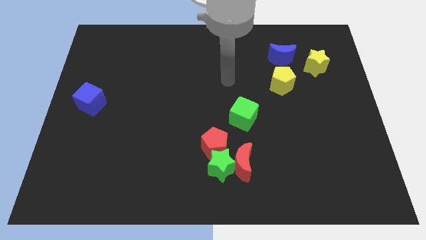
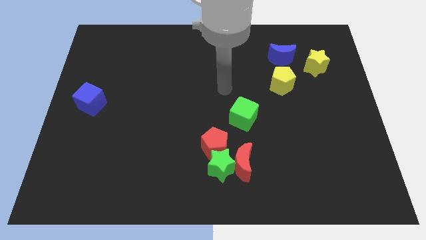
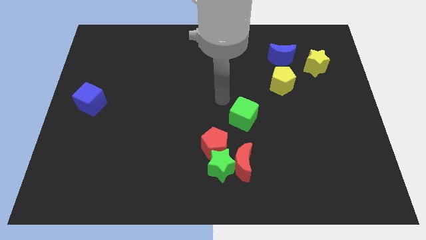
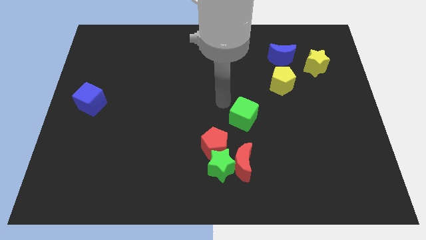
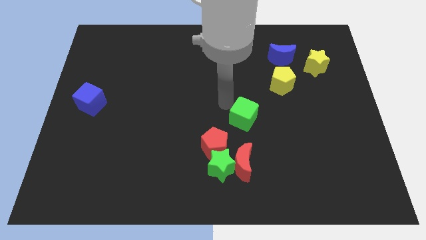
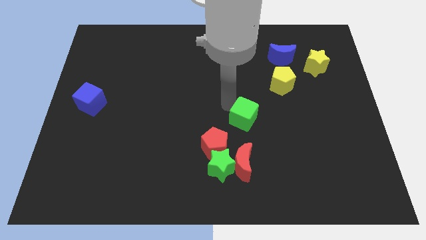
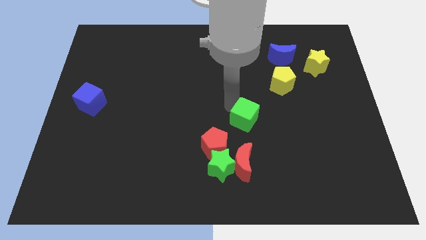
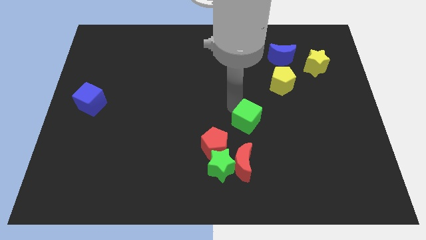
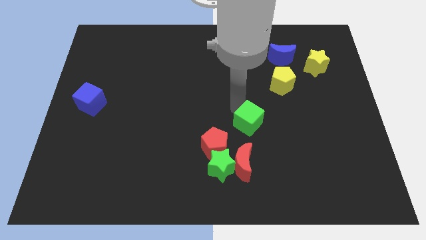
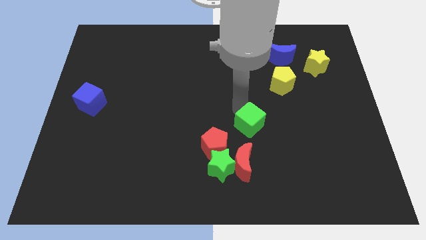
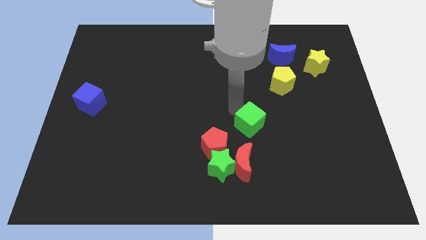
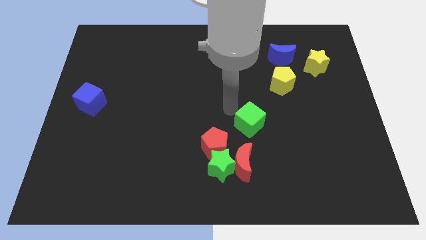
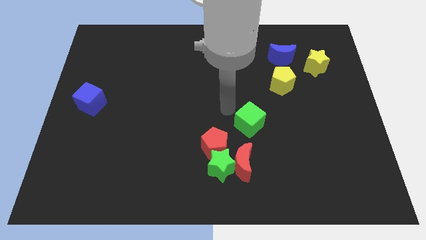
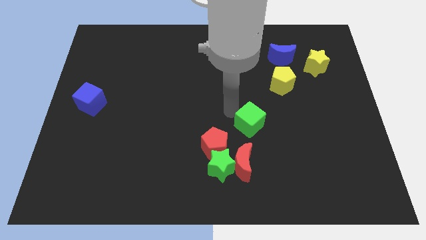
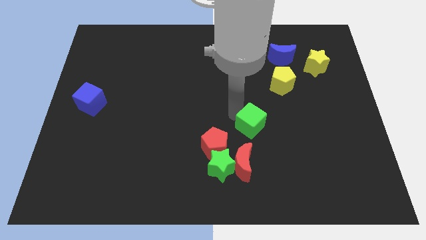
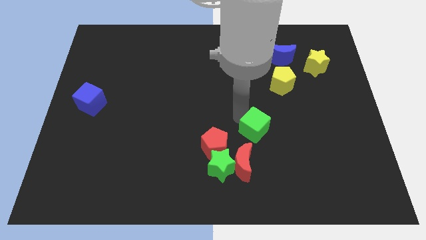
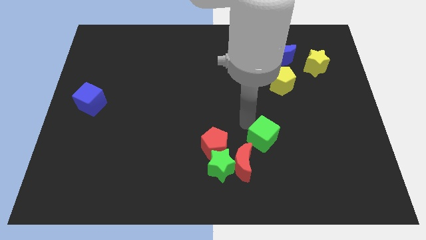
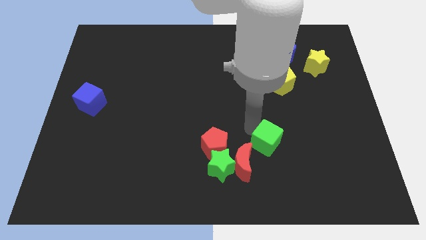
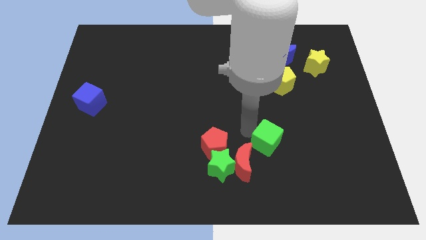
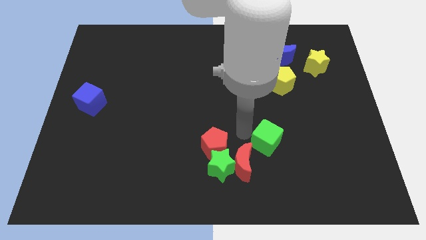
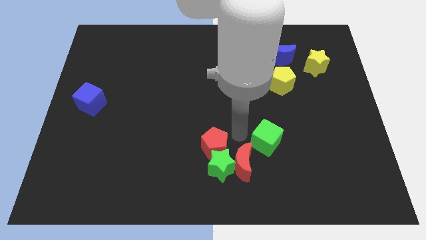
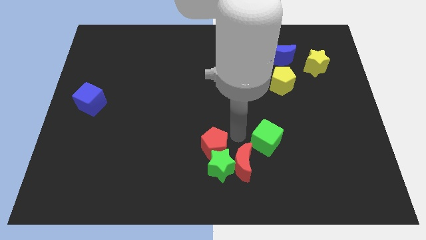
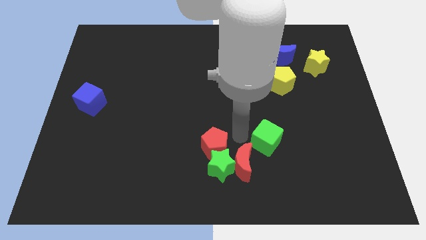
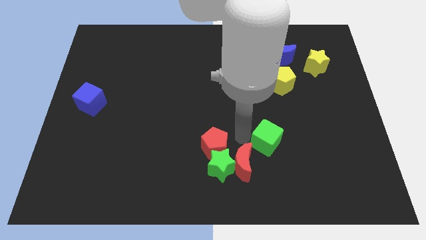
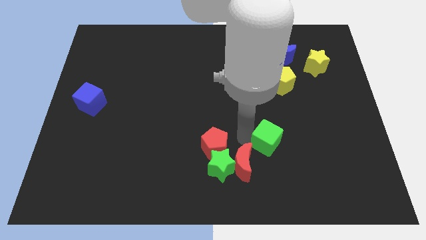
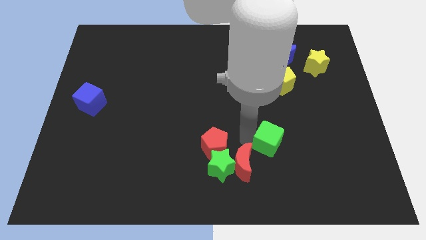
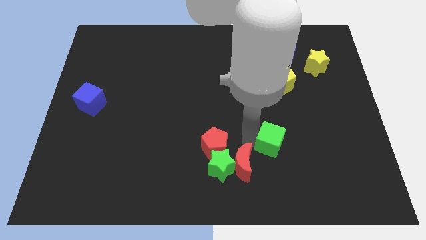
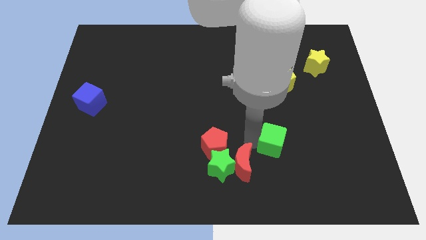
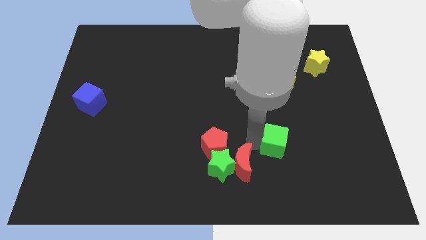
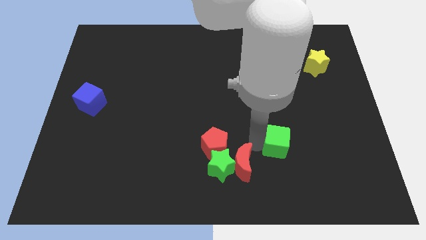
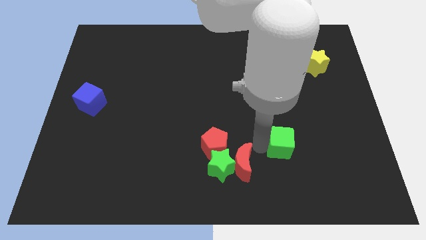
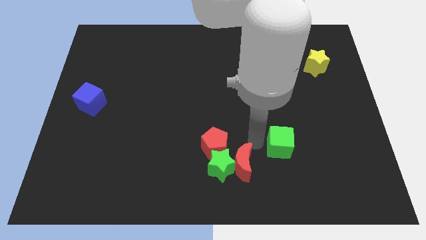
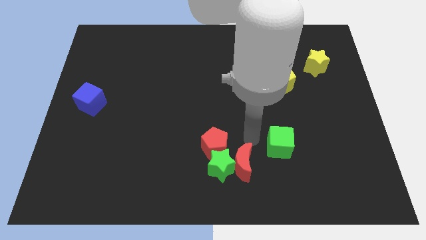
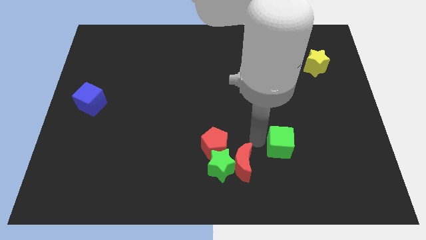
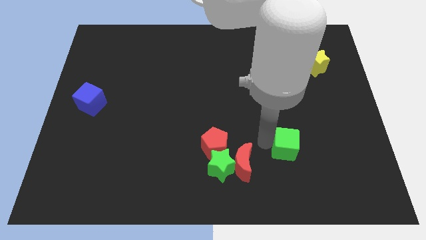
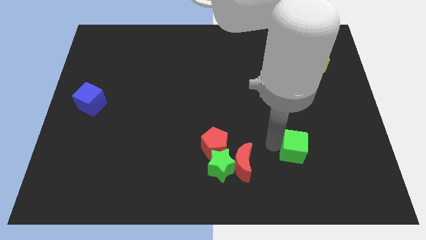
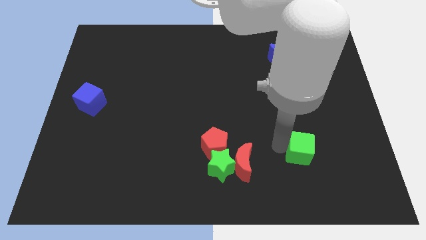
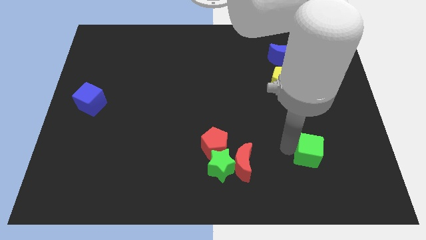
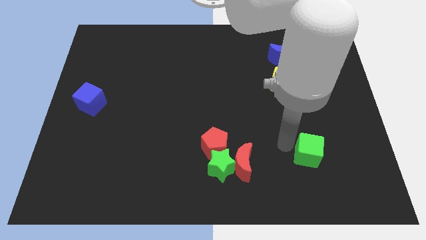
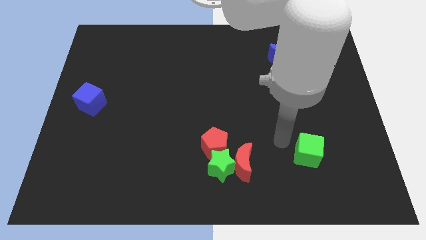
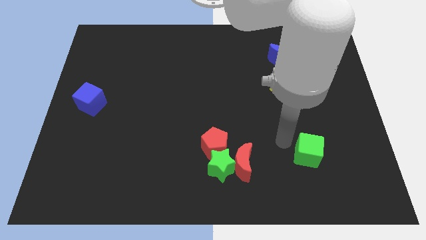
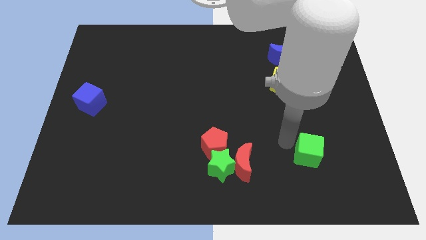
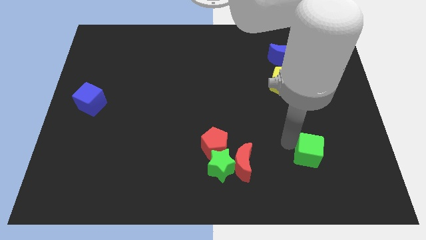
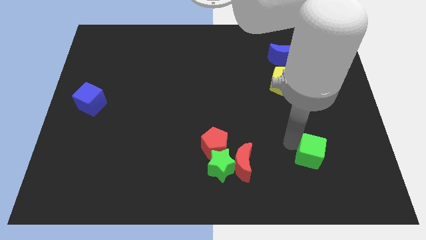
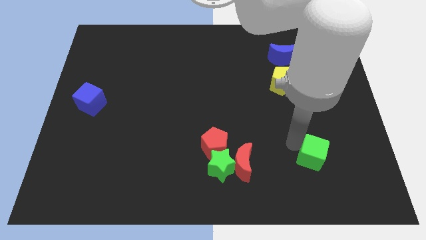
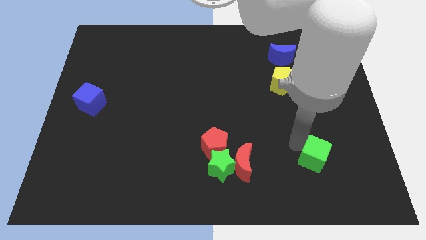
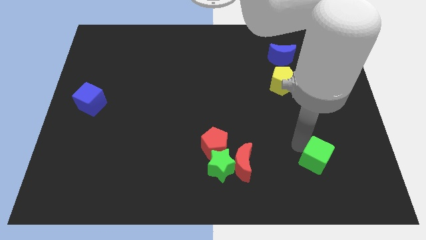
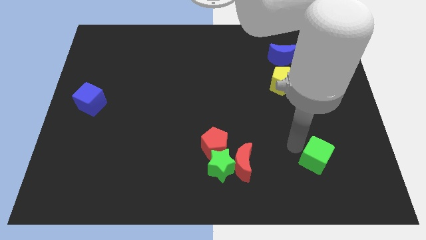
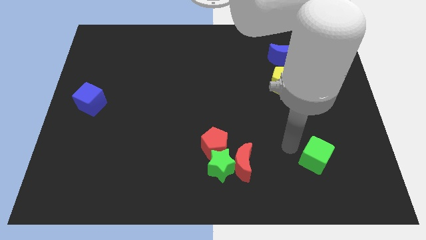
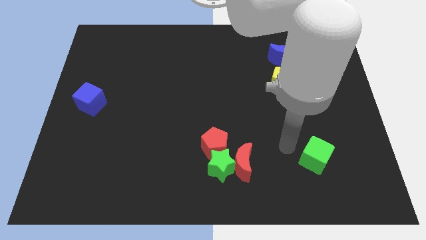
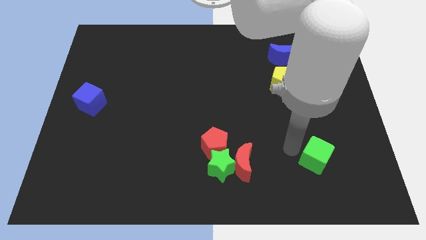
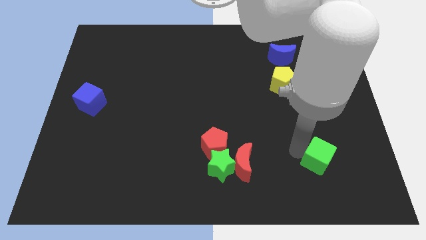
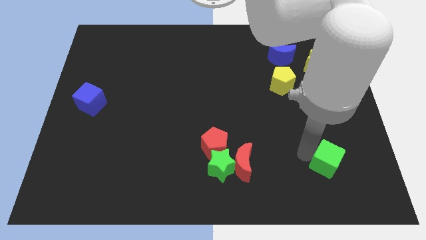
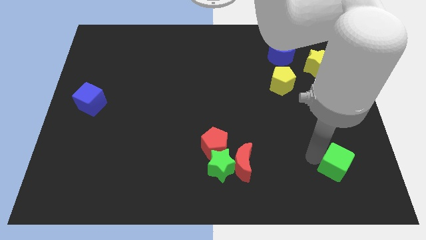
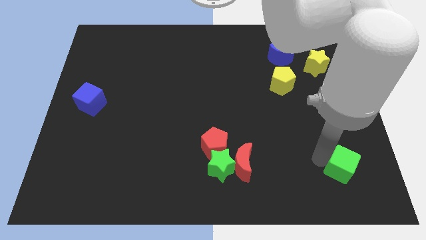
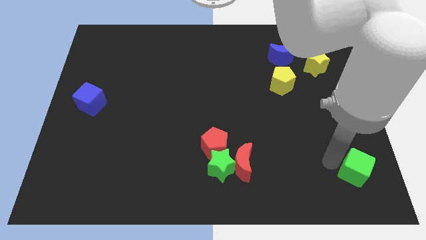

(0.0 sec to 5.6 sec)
slide the green cube to the bottom right corner

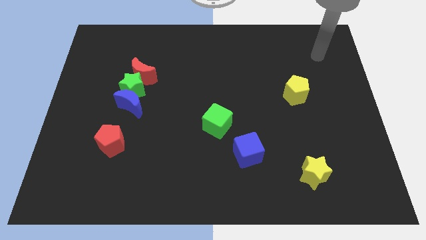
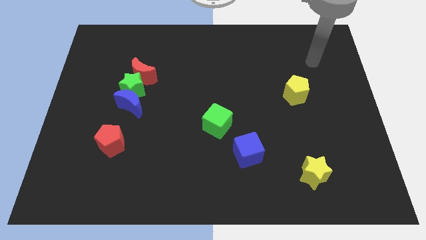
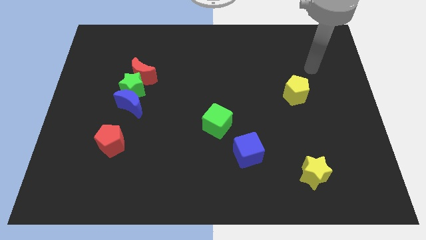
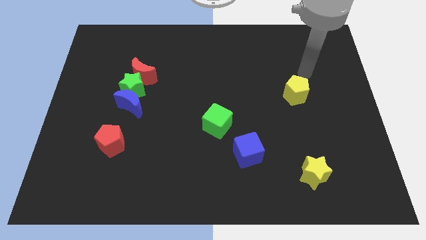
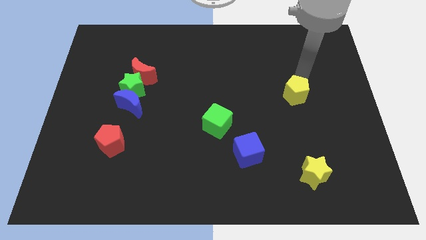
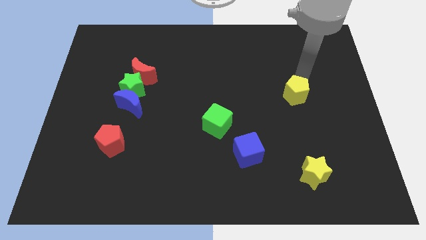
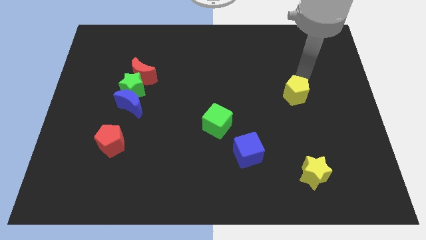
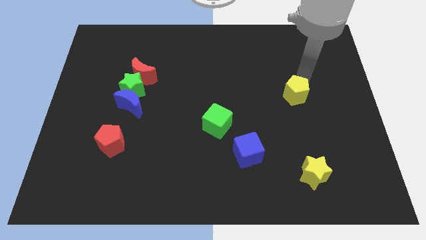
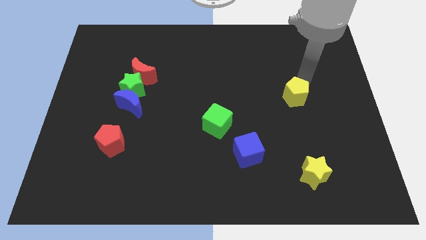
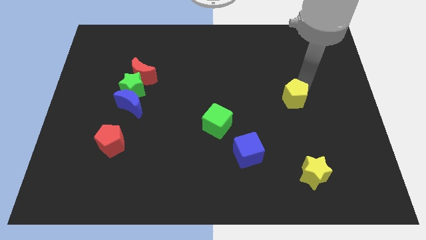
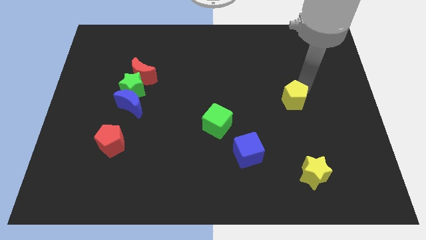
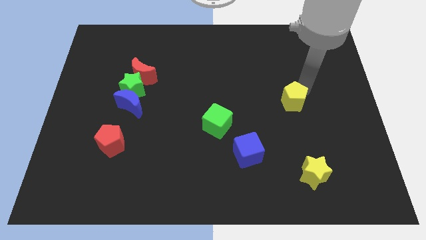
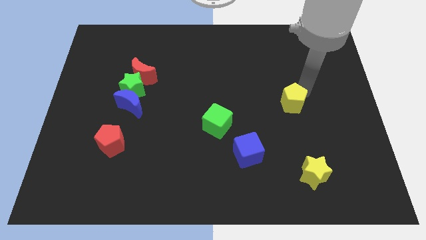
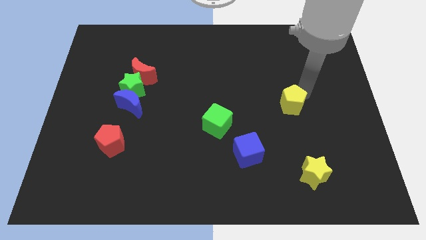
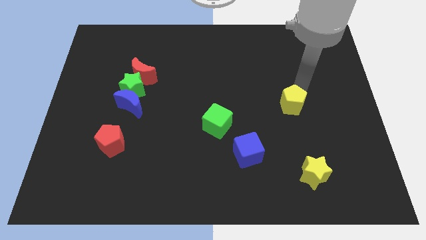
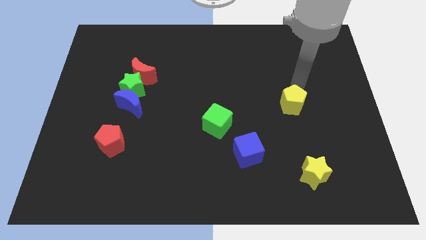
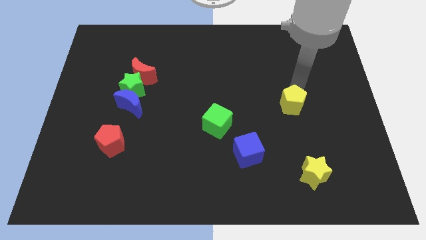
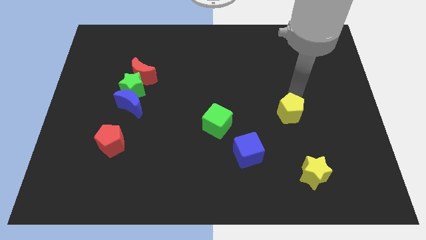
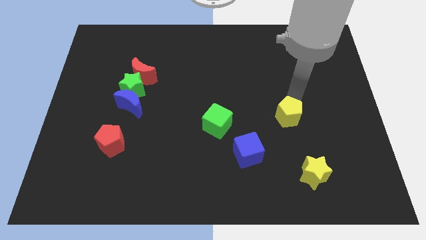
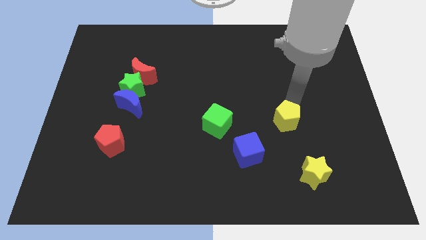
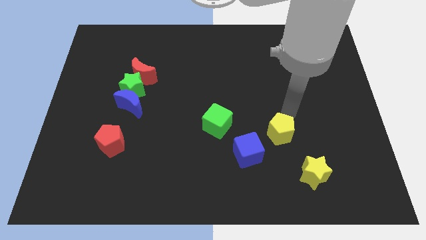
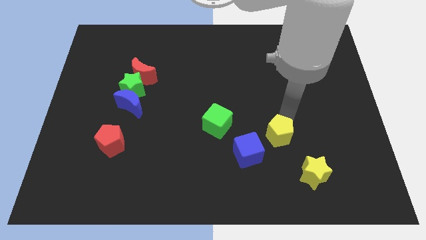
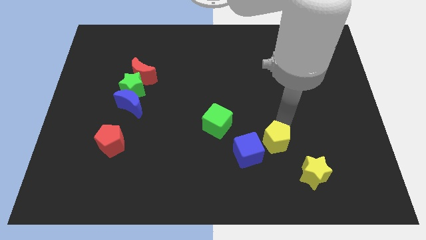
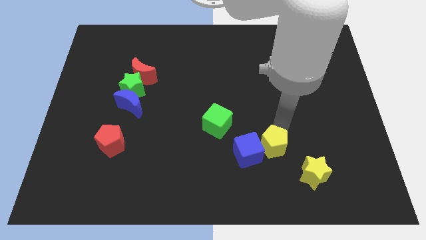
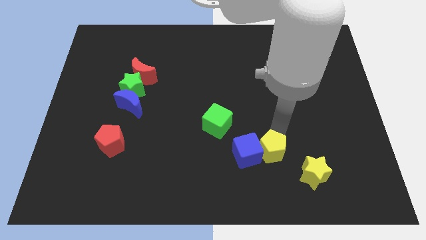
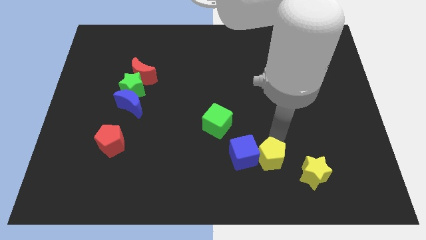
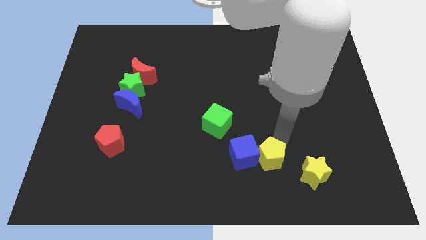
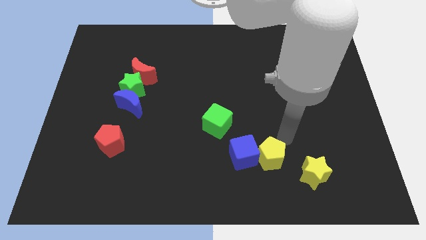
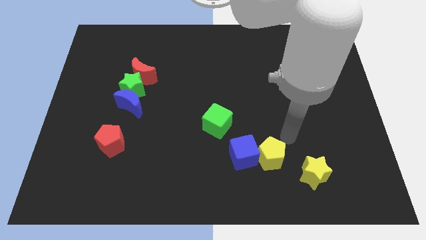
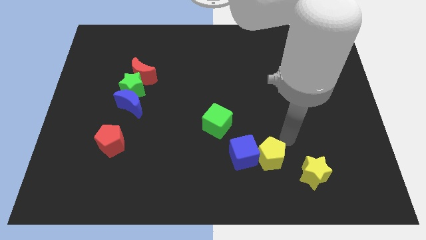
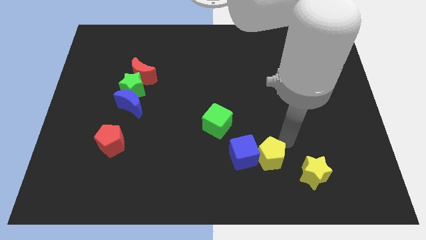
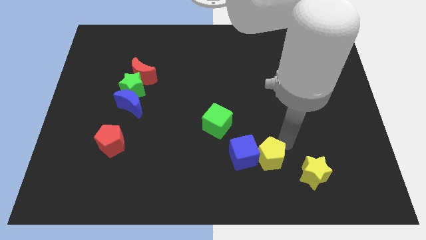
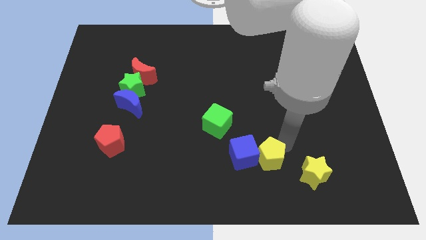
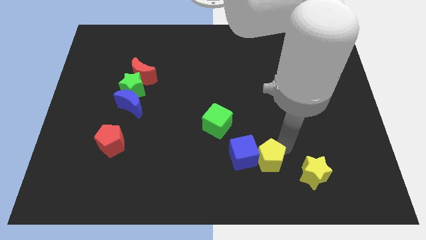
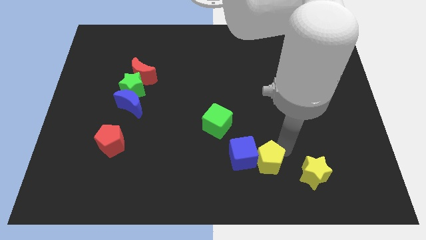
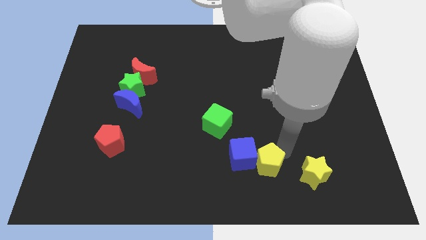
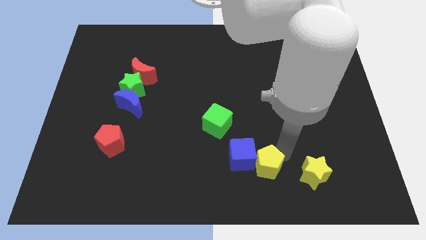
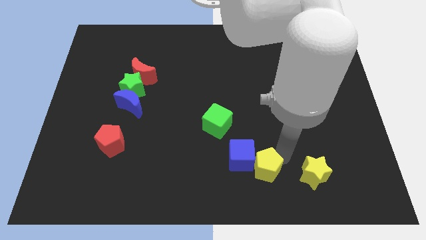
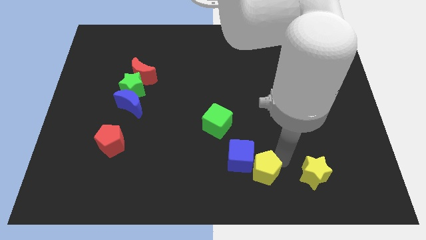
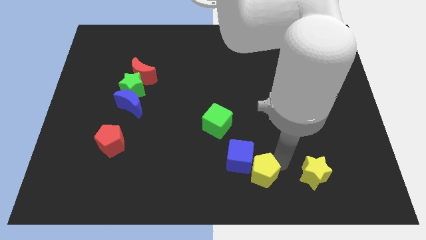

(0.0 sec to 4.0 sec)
slide the yellow pentagon to the bottom
